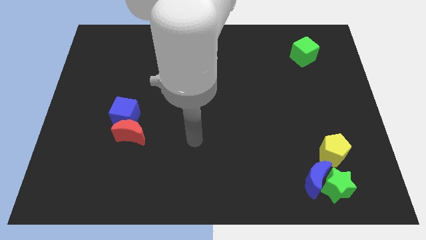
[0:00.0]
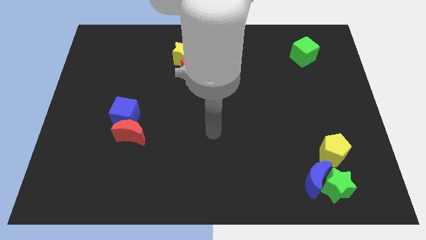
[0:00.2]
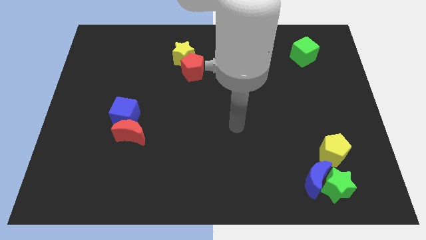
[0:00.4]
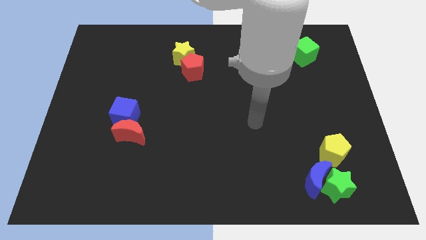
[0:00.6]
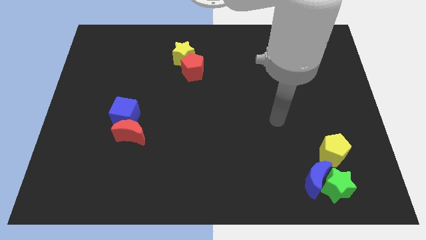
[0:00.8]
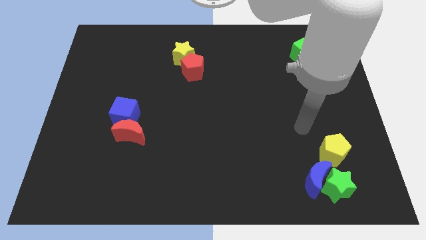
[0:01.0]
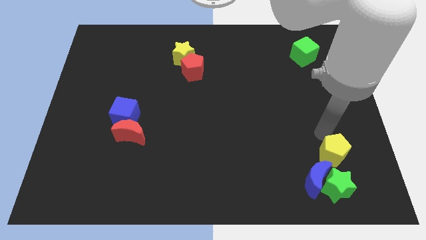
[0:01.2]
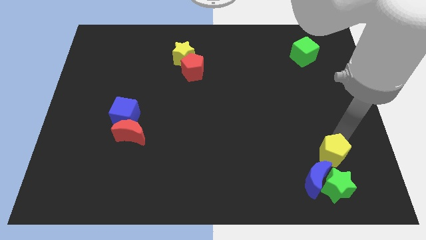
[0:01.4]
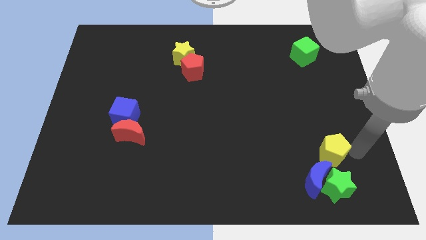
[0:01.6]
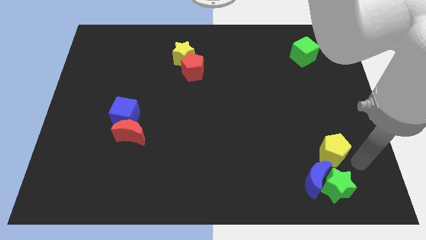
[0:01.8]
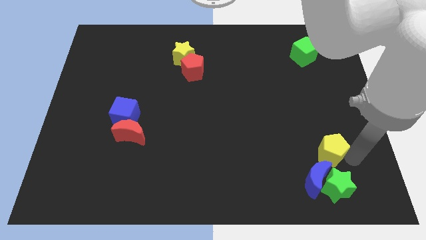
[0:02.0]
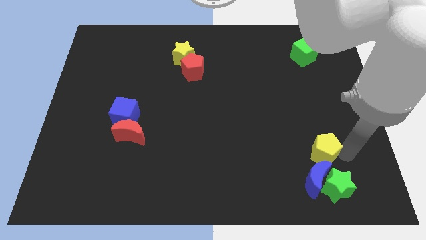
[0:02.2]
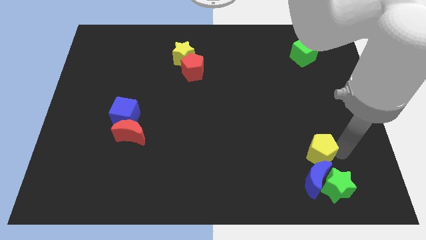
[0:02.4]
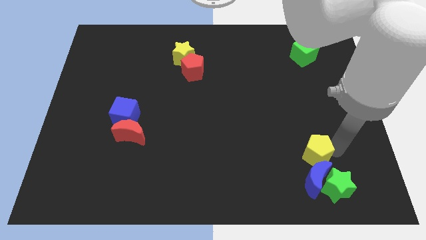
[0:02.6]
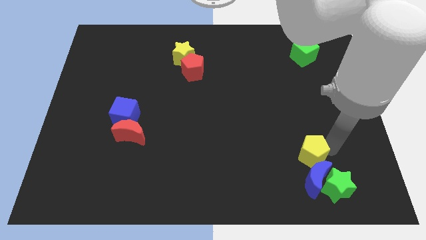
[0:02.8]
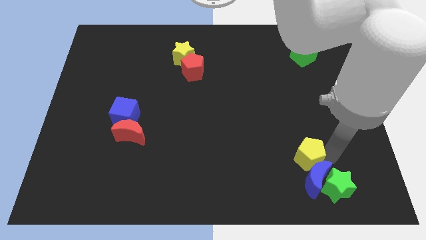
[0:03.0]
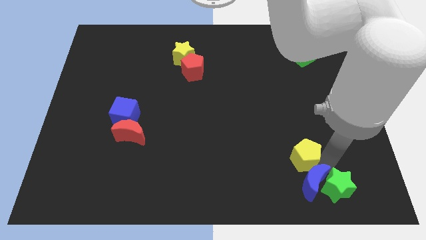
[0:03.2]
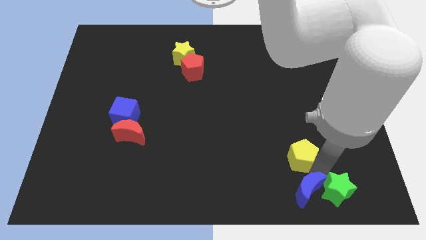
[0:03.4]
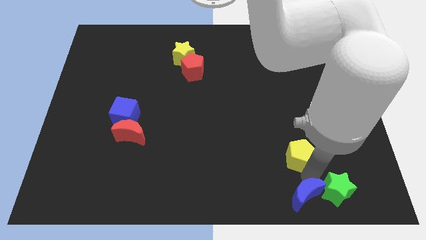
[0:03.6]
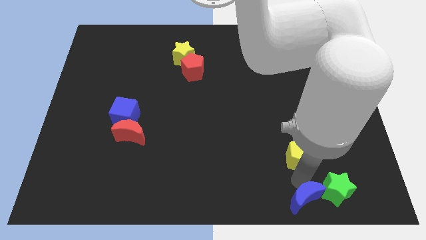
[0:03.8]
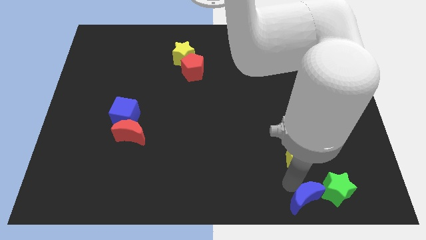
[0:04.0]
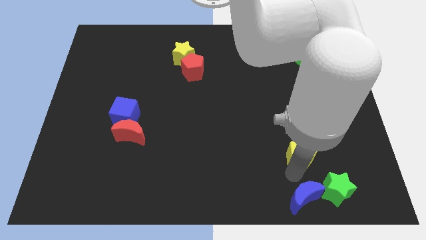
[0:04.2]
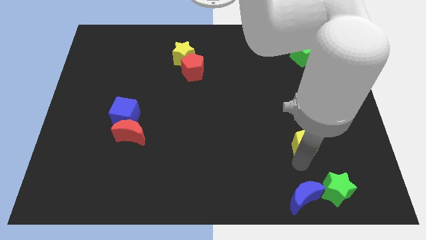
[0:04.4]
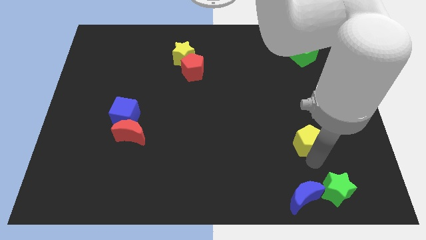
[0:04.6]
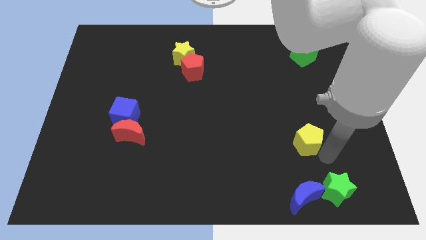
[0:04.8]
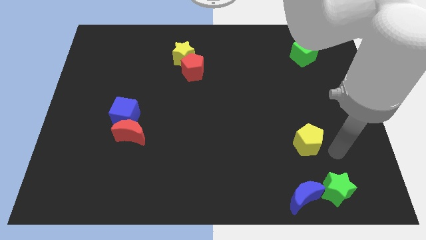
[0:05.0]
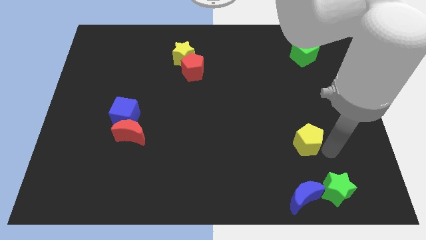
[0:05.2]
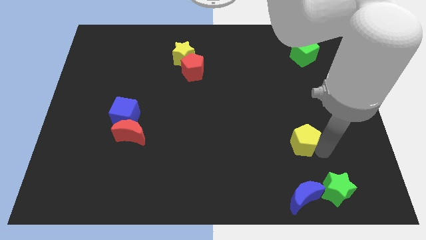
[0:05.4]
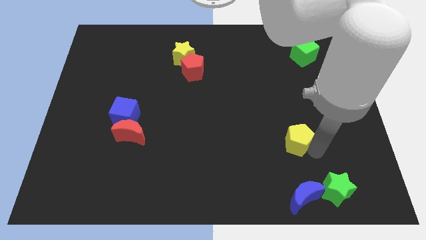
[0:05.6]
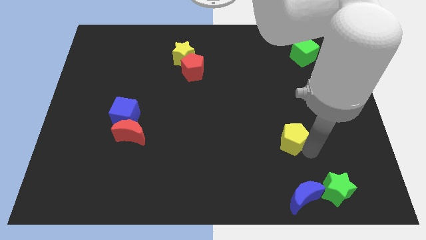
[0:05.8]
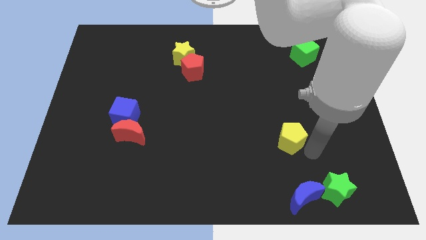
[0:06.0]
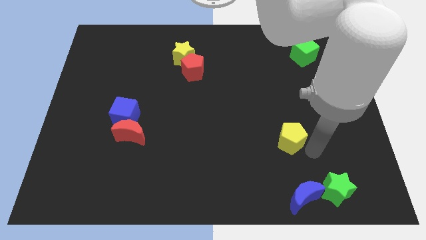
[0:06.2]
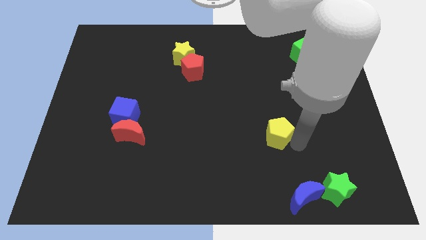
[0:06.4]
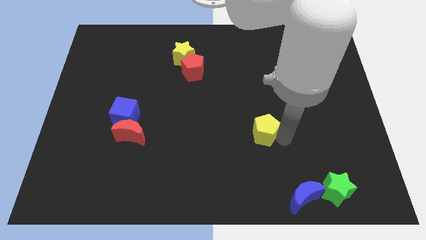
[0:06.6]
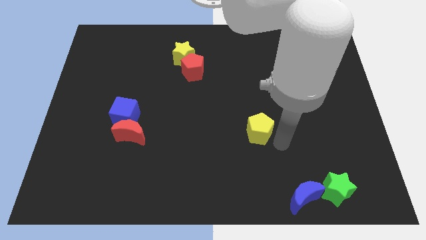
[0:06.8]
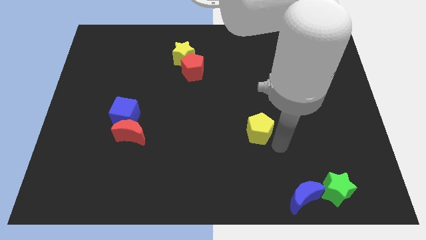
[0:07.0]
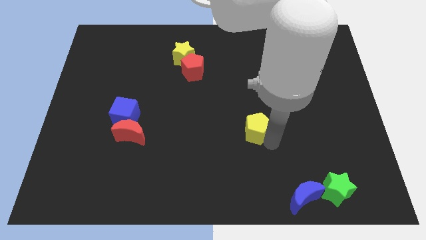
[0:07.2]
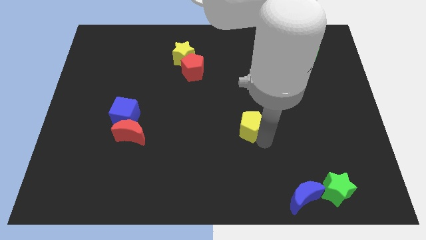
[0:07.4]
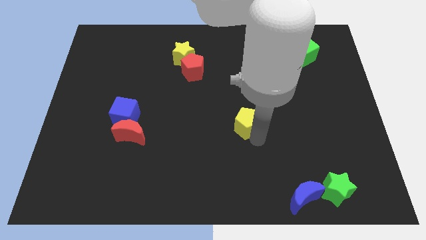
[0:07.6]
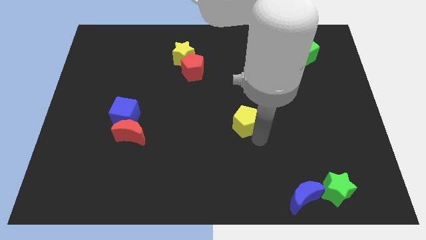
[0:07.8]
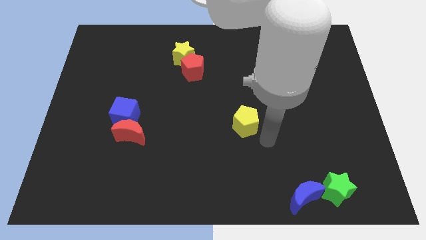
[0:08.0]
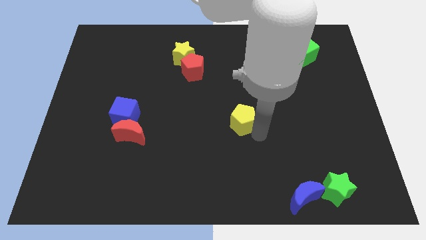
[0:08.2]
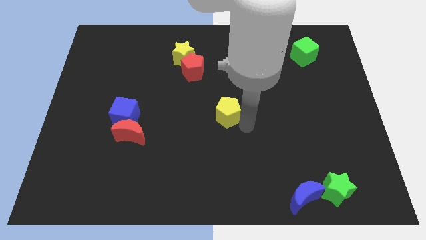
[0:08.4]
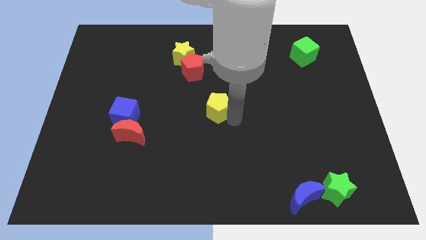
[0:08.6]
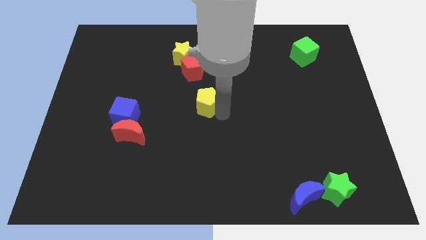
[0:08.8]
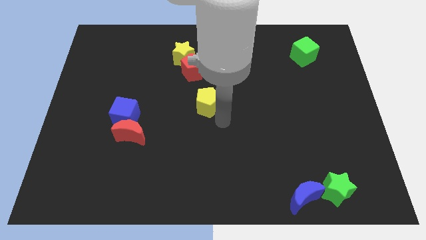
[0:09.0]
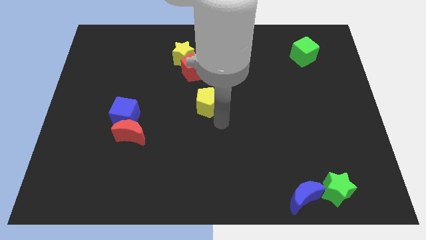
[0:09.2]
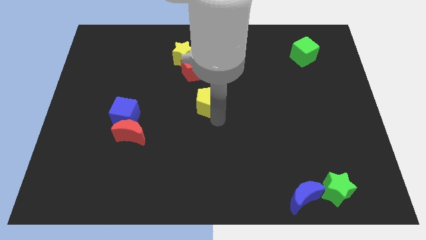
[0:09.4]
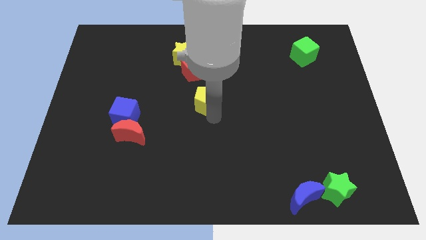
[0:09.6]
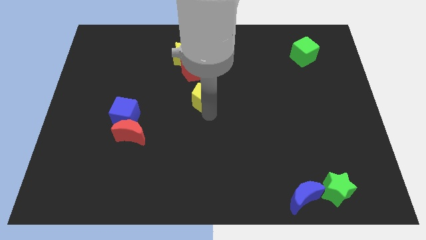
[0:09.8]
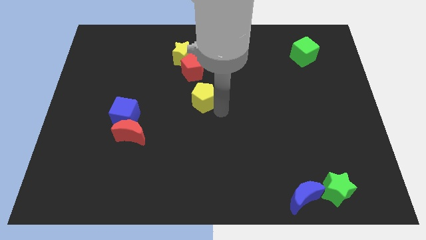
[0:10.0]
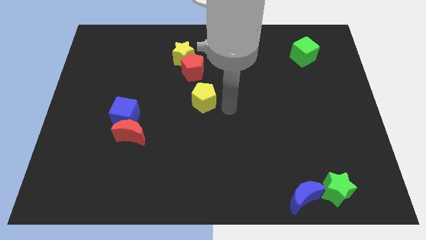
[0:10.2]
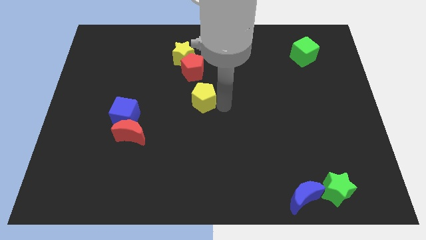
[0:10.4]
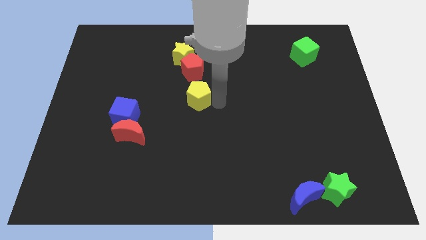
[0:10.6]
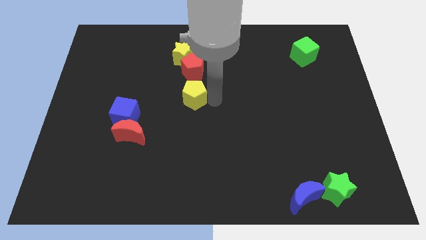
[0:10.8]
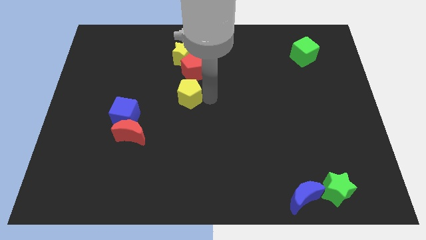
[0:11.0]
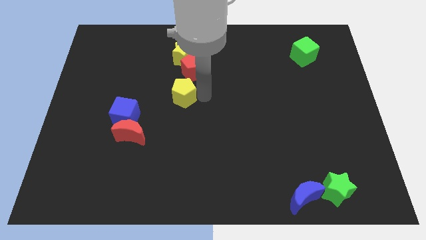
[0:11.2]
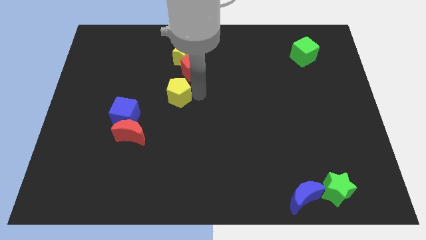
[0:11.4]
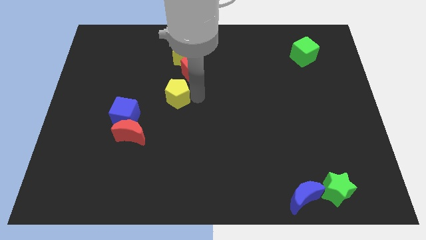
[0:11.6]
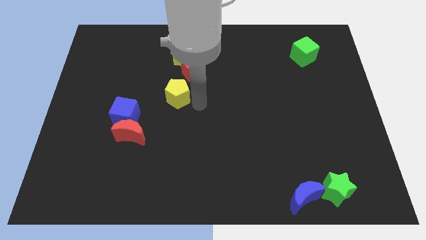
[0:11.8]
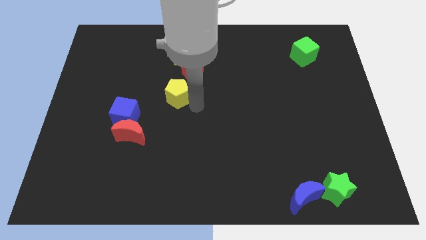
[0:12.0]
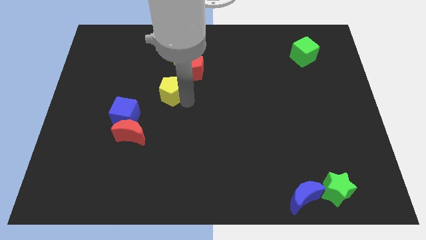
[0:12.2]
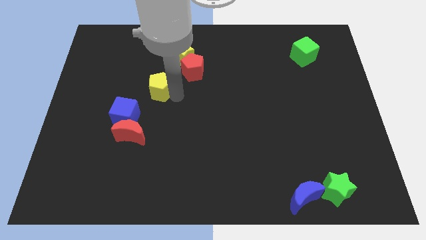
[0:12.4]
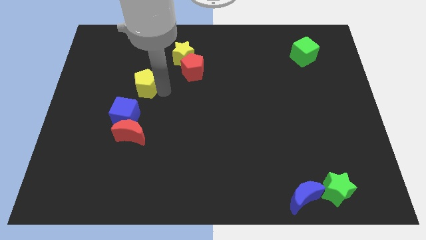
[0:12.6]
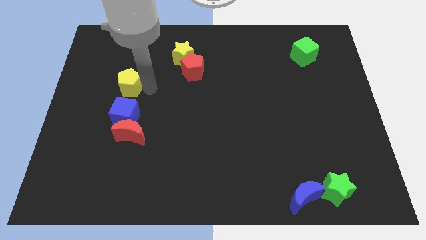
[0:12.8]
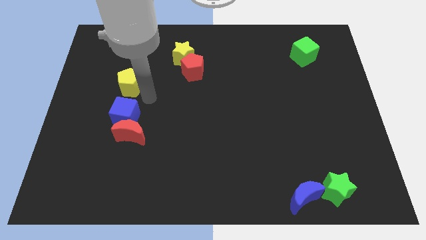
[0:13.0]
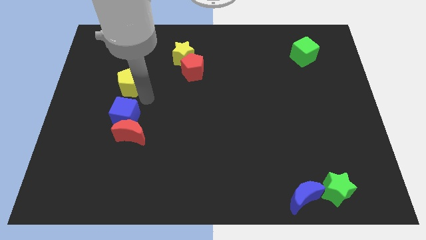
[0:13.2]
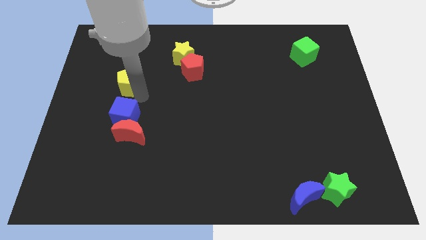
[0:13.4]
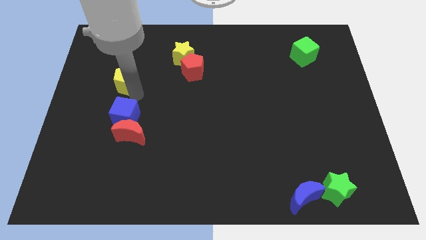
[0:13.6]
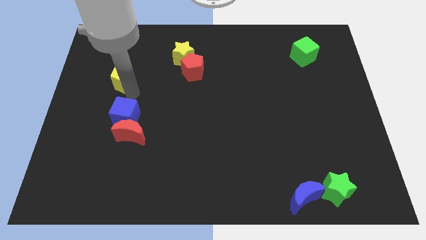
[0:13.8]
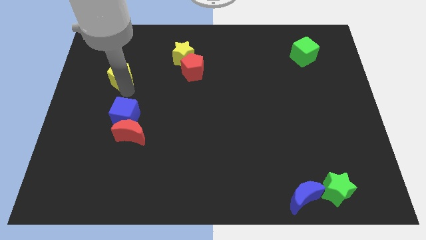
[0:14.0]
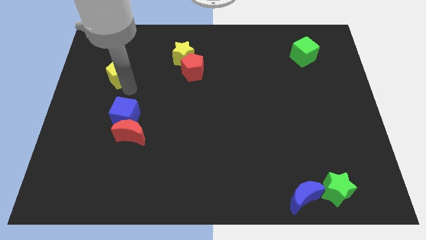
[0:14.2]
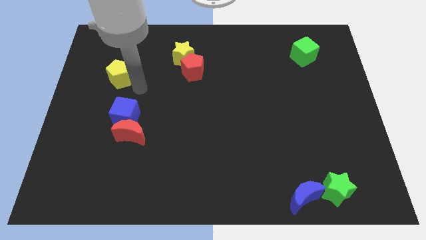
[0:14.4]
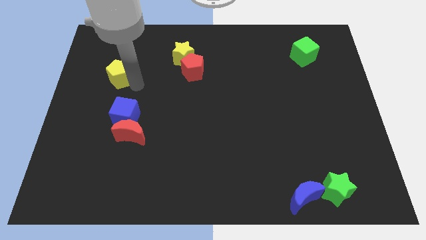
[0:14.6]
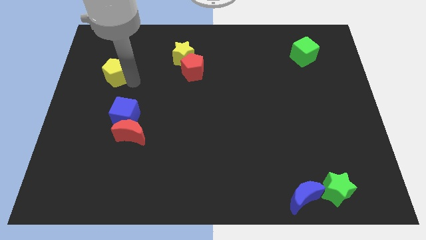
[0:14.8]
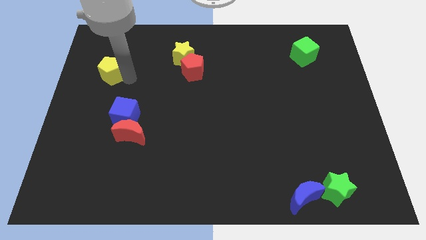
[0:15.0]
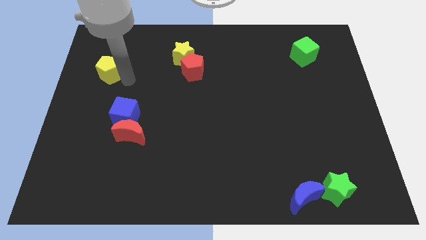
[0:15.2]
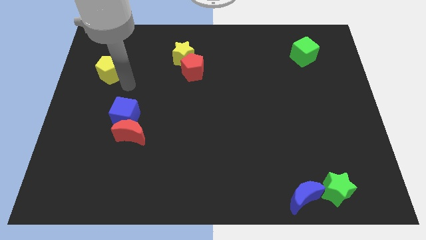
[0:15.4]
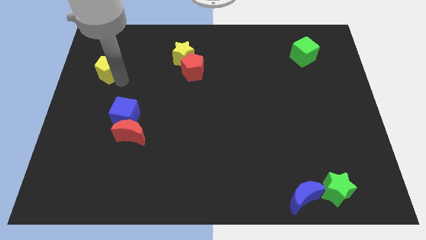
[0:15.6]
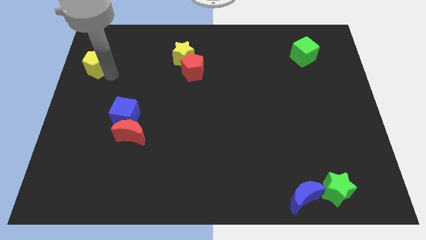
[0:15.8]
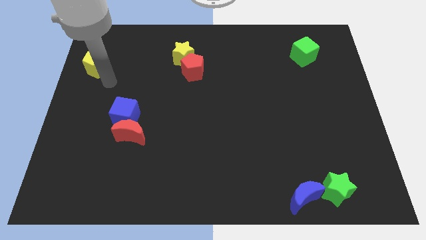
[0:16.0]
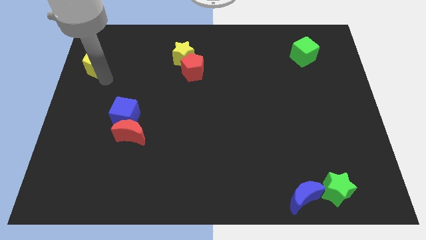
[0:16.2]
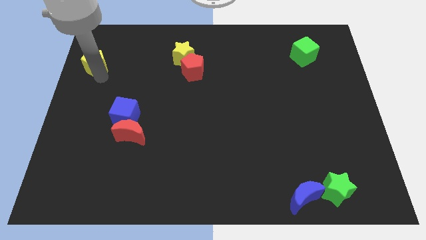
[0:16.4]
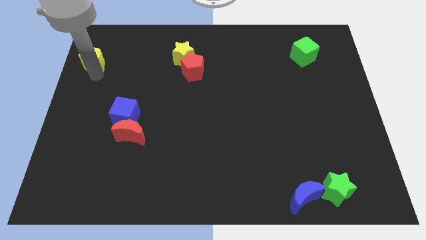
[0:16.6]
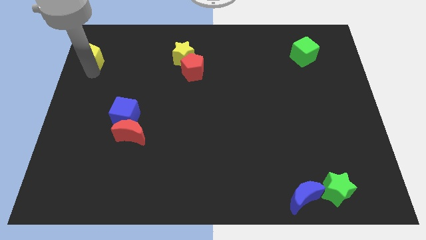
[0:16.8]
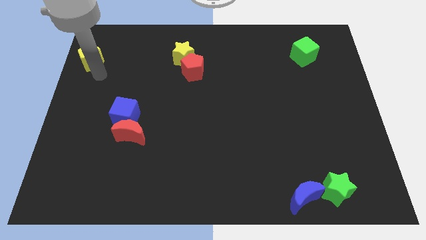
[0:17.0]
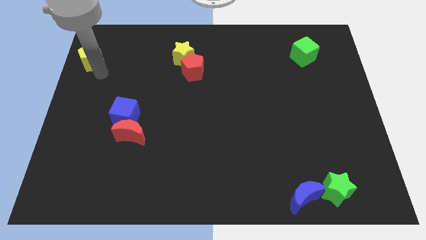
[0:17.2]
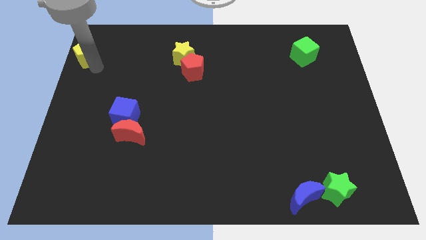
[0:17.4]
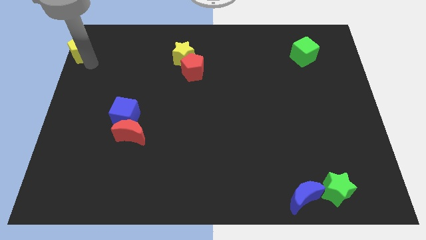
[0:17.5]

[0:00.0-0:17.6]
move the yellow pentagon to the top left
